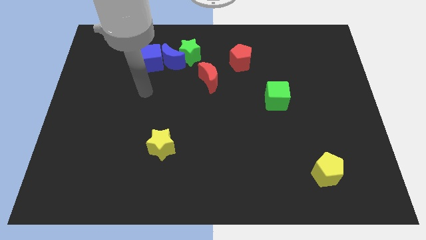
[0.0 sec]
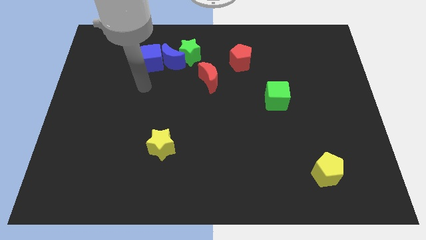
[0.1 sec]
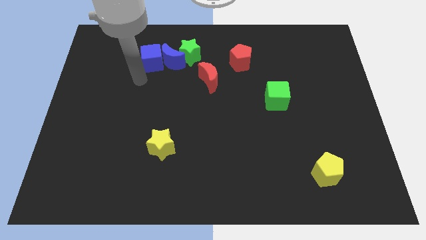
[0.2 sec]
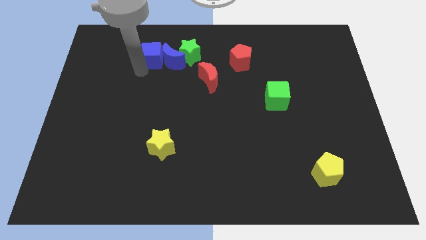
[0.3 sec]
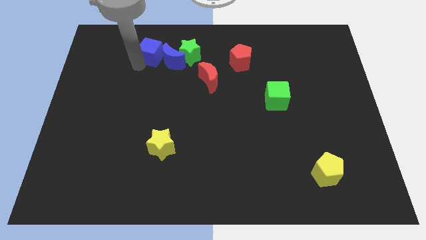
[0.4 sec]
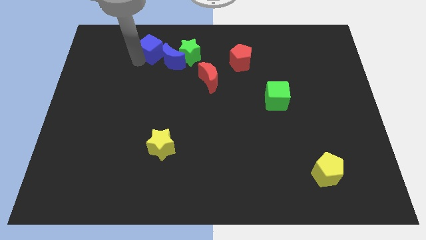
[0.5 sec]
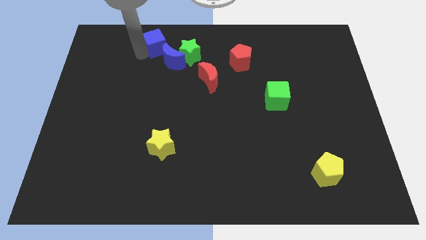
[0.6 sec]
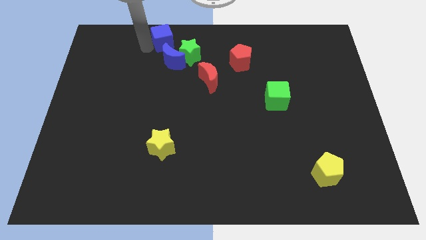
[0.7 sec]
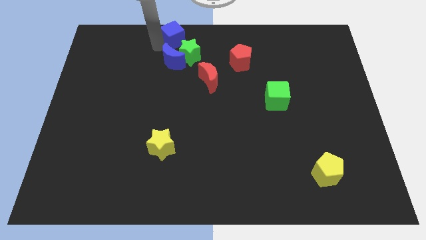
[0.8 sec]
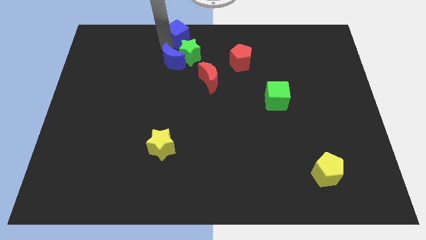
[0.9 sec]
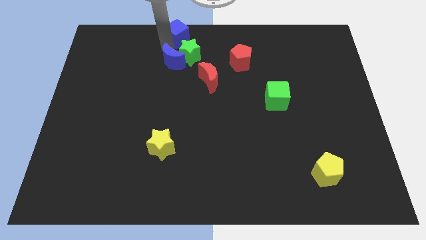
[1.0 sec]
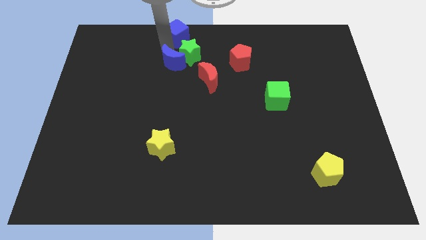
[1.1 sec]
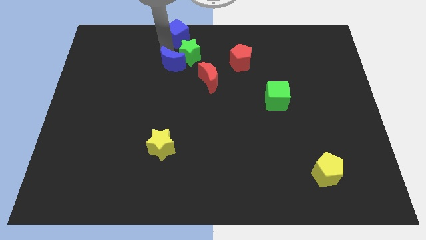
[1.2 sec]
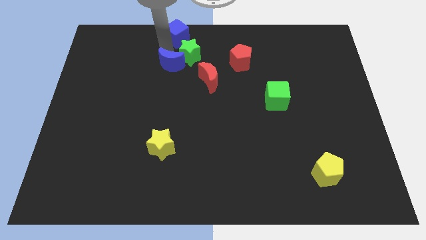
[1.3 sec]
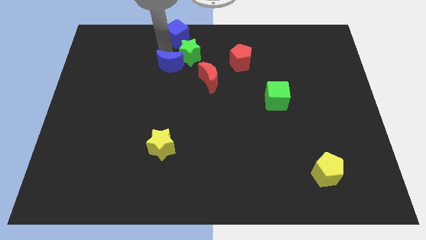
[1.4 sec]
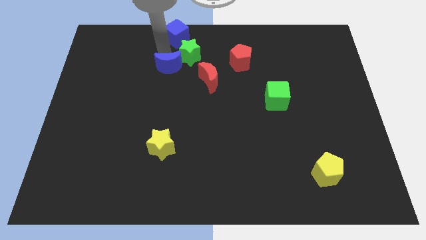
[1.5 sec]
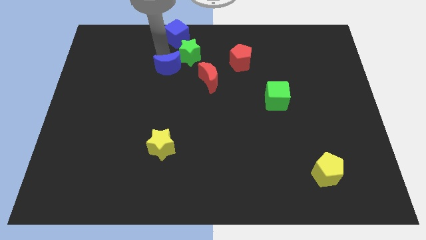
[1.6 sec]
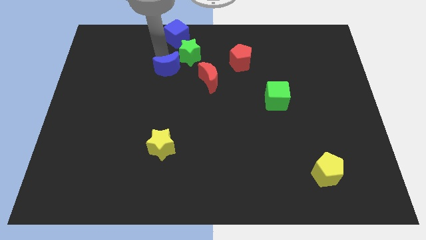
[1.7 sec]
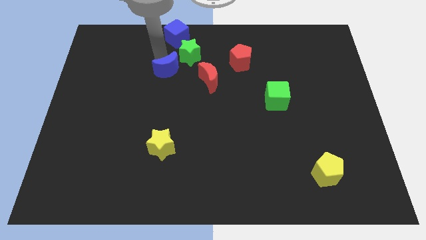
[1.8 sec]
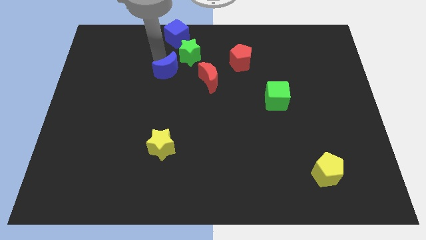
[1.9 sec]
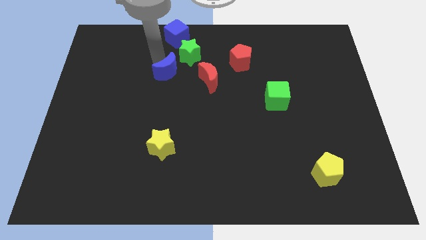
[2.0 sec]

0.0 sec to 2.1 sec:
separate the blue moon from the green star and blue cube

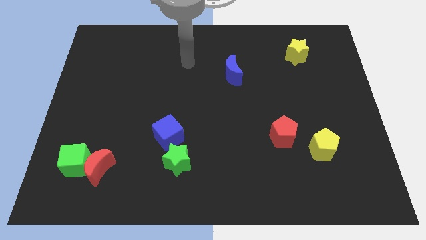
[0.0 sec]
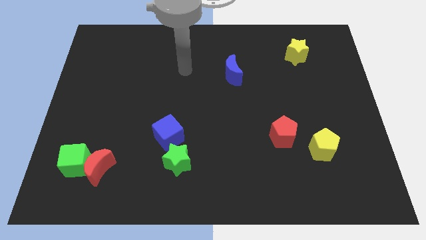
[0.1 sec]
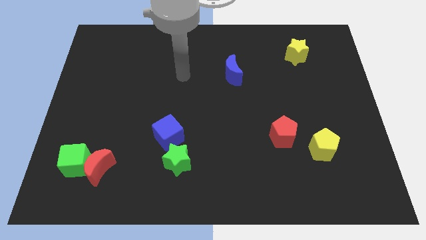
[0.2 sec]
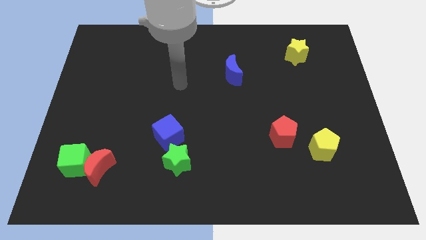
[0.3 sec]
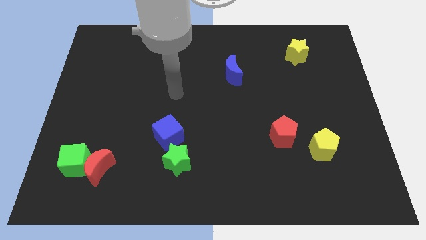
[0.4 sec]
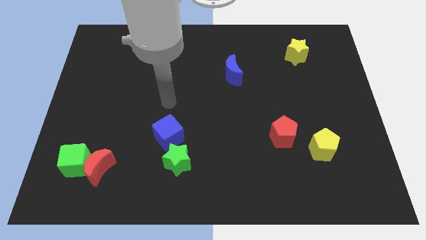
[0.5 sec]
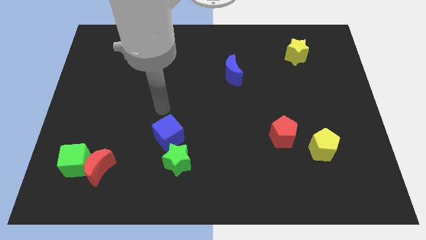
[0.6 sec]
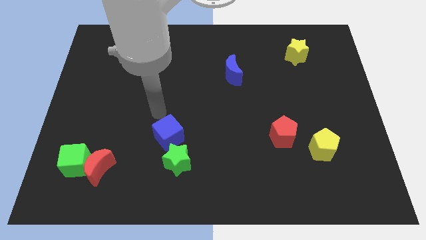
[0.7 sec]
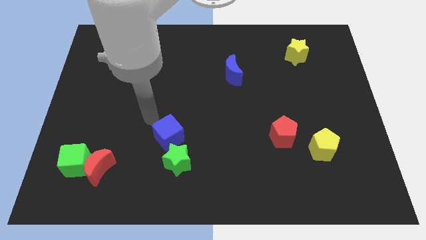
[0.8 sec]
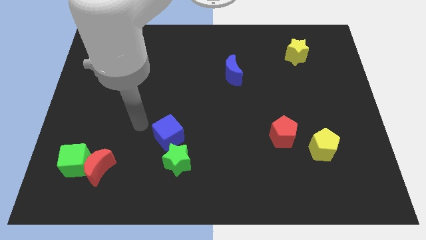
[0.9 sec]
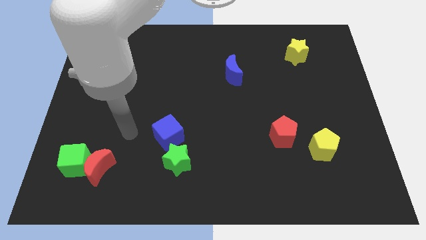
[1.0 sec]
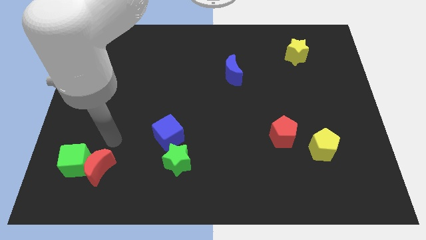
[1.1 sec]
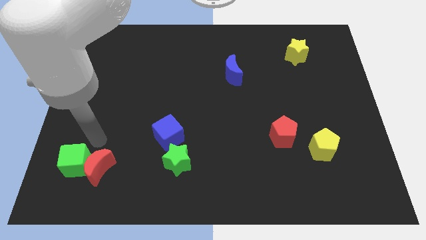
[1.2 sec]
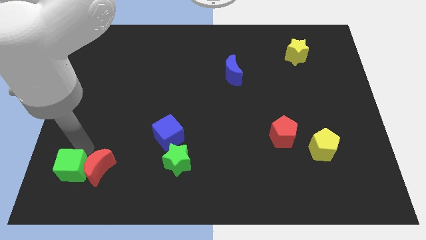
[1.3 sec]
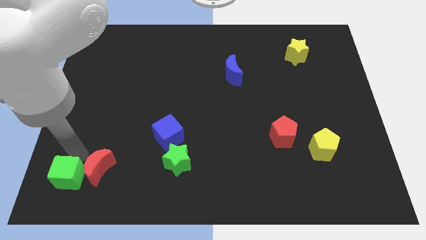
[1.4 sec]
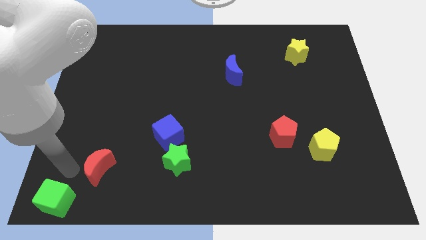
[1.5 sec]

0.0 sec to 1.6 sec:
separate the red moon from the green cube

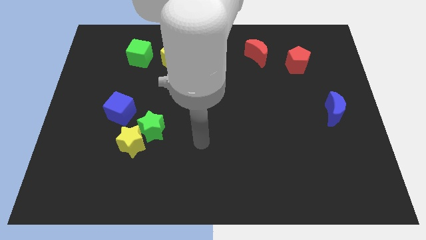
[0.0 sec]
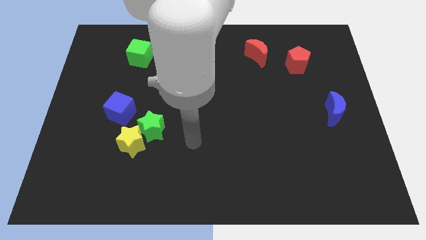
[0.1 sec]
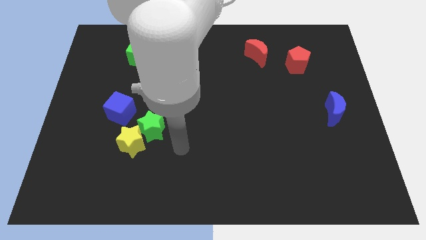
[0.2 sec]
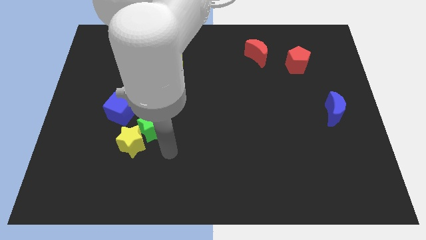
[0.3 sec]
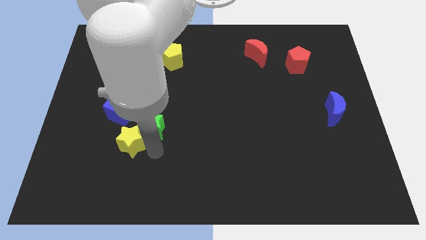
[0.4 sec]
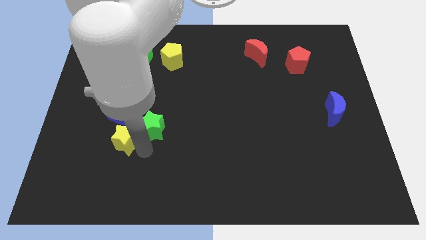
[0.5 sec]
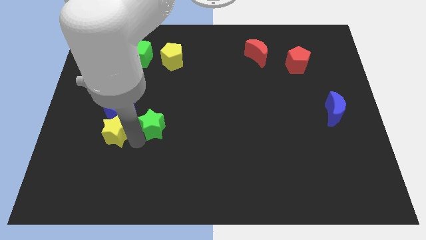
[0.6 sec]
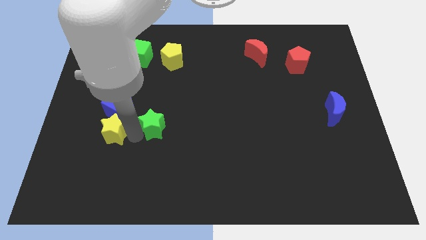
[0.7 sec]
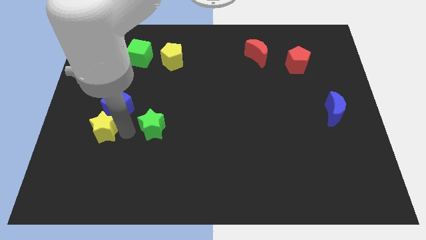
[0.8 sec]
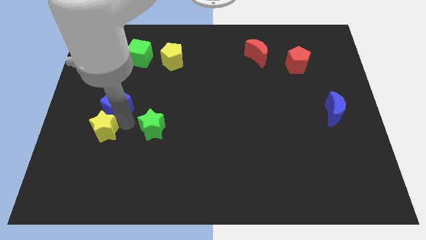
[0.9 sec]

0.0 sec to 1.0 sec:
separate the green star from the yellow star and blue cube

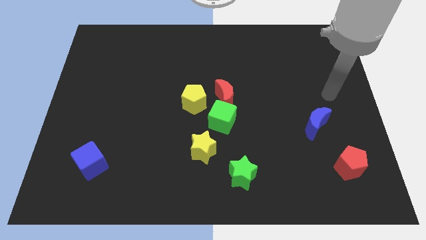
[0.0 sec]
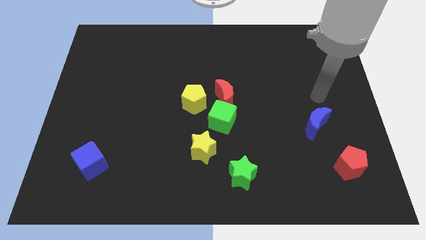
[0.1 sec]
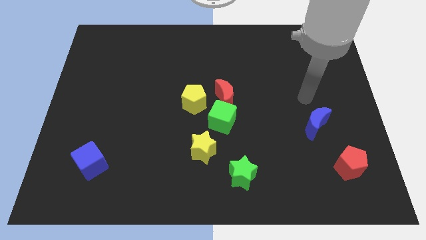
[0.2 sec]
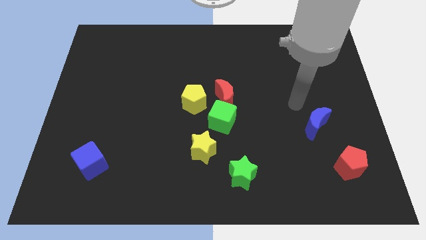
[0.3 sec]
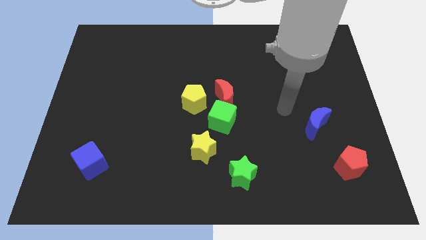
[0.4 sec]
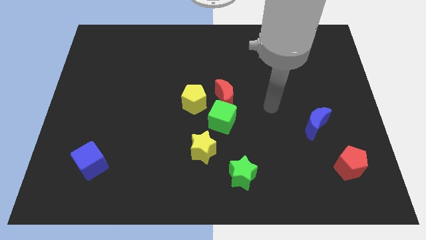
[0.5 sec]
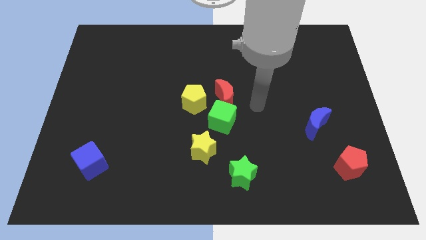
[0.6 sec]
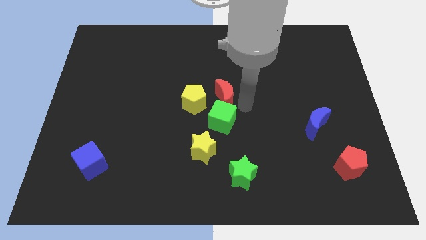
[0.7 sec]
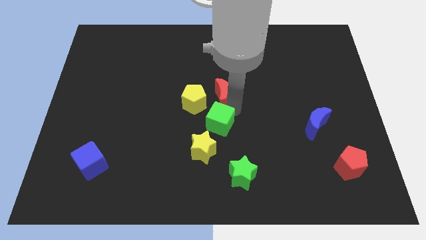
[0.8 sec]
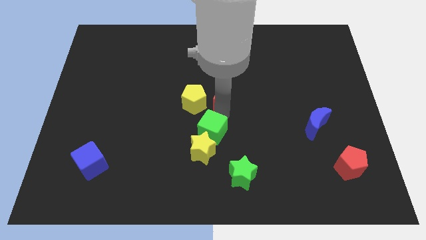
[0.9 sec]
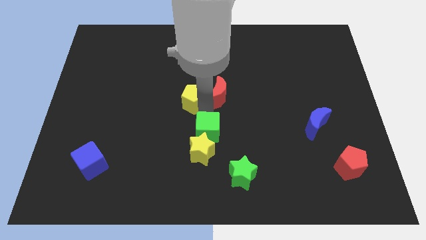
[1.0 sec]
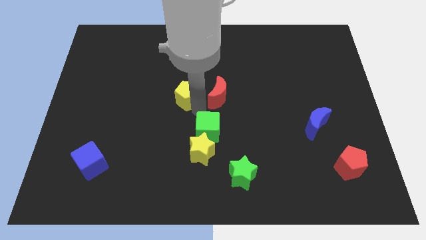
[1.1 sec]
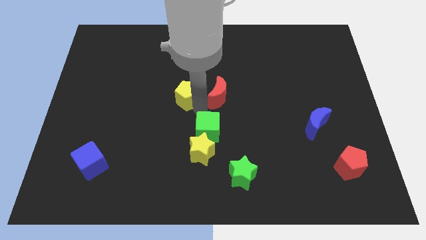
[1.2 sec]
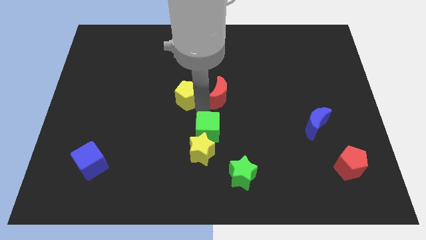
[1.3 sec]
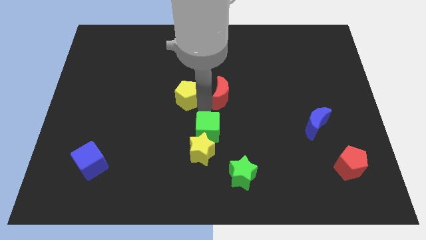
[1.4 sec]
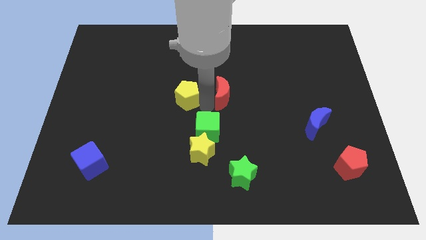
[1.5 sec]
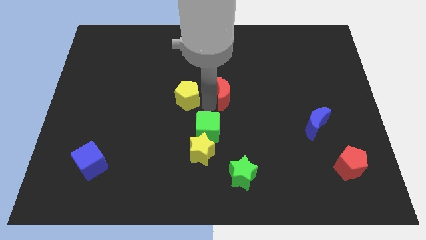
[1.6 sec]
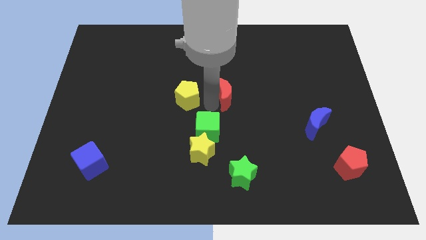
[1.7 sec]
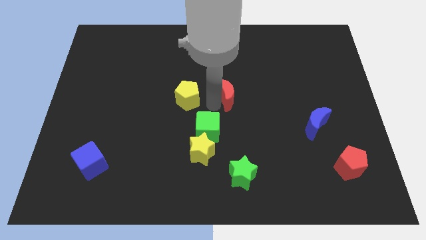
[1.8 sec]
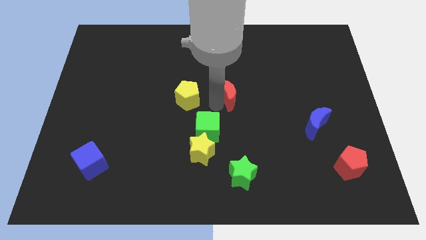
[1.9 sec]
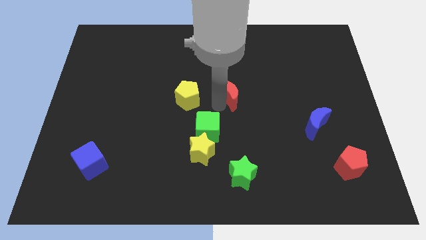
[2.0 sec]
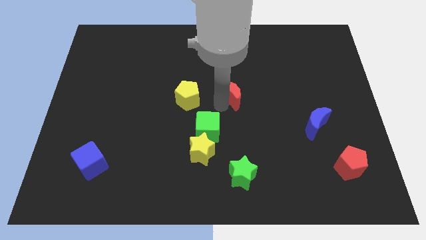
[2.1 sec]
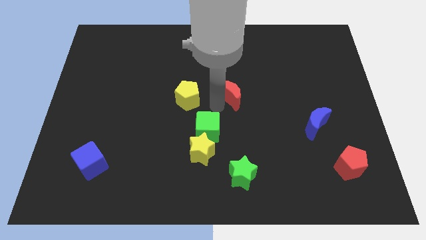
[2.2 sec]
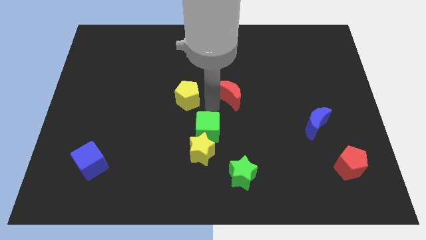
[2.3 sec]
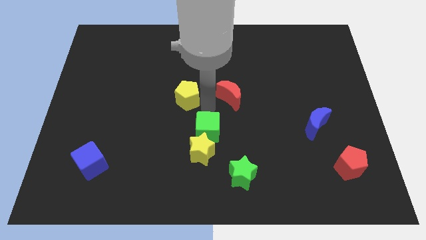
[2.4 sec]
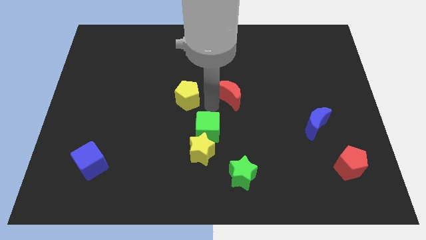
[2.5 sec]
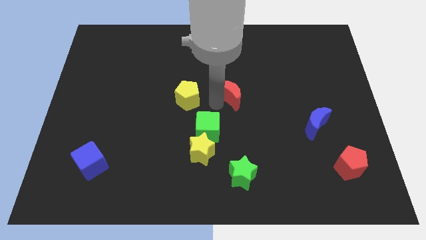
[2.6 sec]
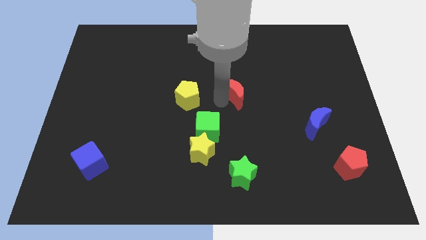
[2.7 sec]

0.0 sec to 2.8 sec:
move the red moon away from the green cube and yellow pentagon

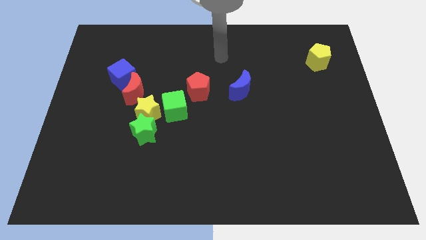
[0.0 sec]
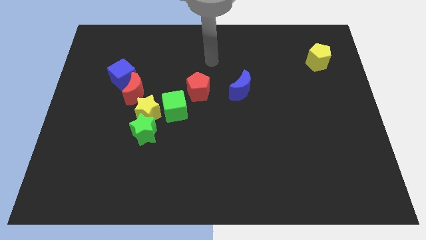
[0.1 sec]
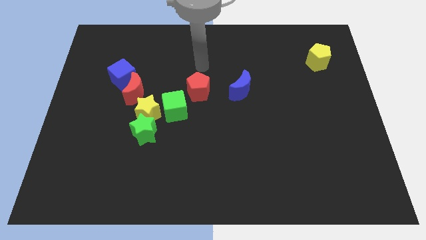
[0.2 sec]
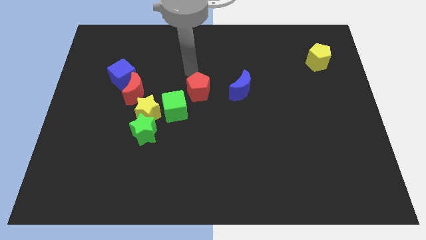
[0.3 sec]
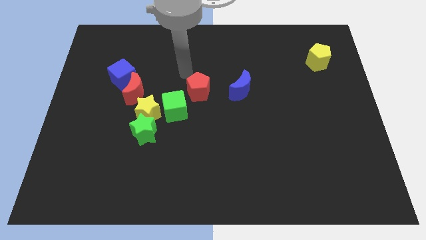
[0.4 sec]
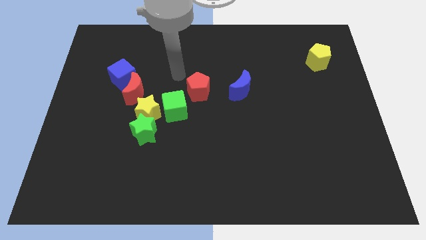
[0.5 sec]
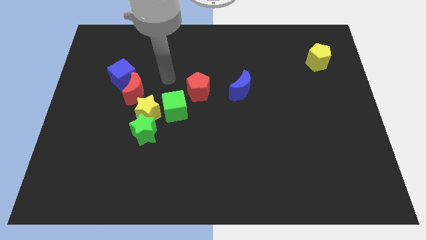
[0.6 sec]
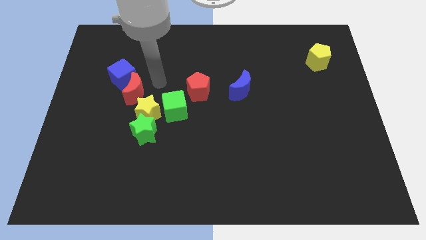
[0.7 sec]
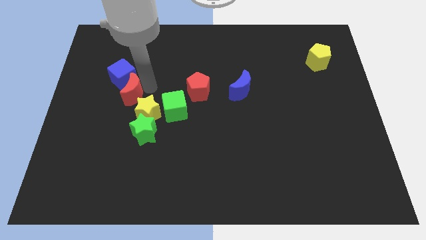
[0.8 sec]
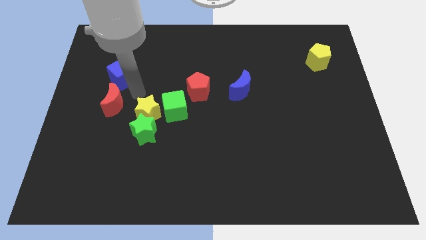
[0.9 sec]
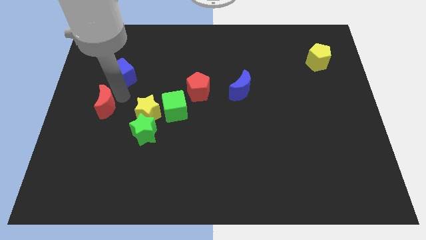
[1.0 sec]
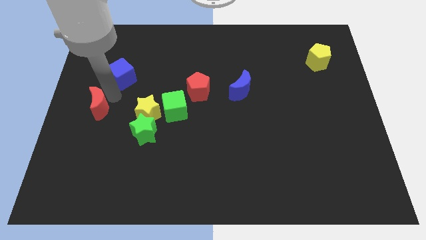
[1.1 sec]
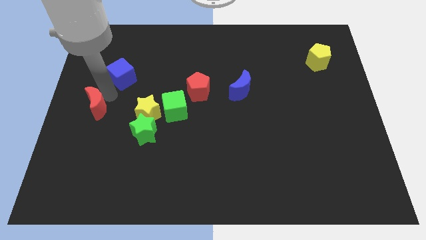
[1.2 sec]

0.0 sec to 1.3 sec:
separate the blue cube from the red moon

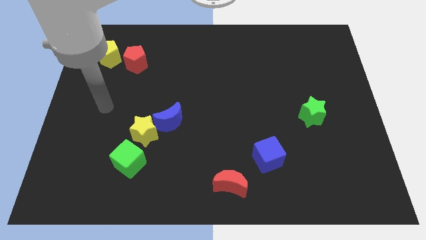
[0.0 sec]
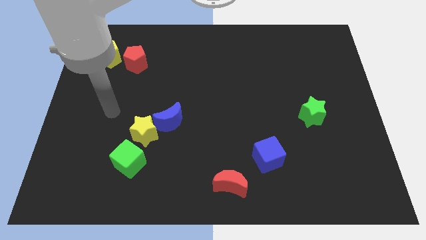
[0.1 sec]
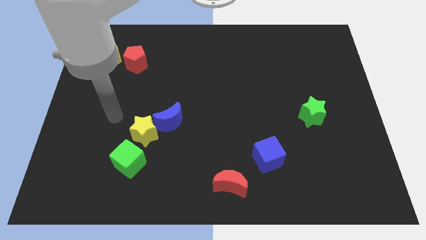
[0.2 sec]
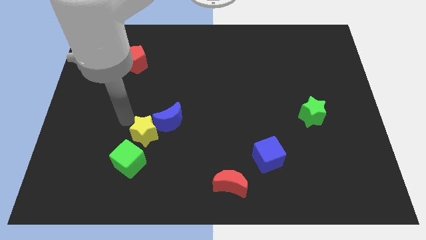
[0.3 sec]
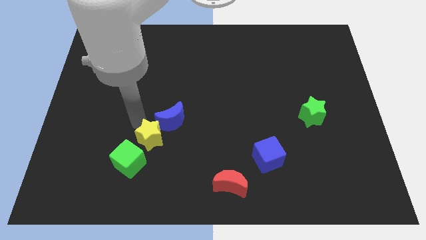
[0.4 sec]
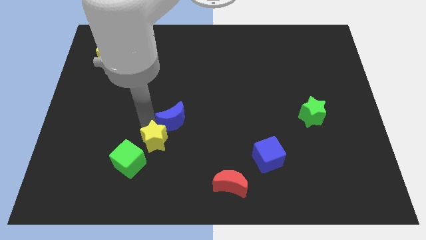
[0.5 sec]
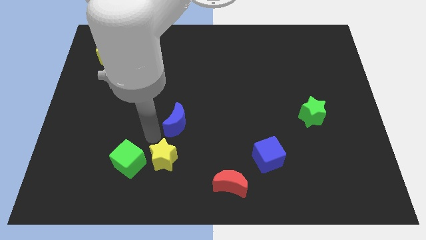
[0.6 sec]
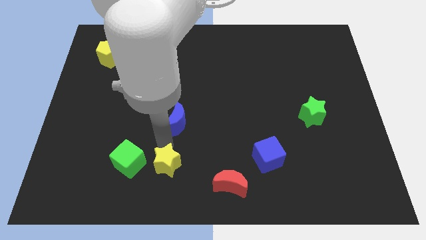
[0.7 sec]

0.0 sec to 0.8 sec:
pull the blue moon apart from the yellow star
